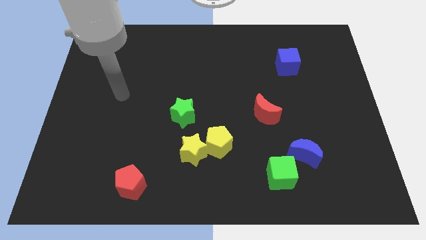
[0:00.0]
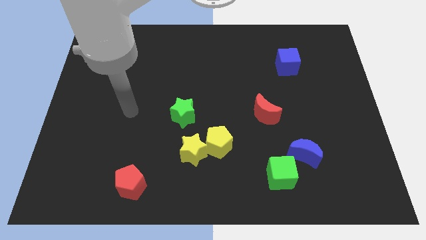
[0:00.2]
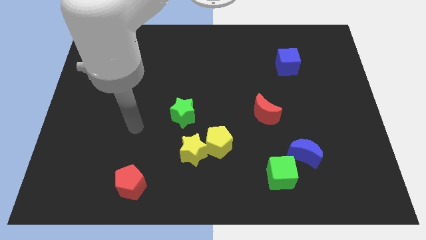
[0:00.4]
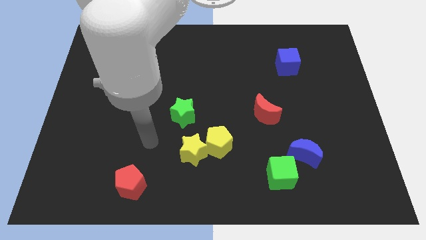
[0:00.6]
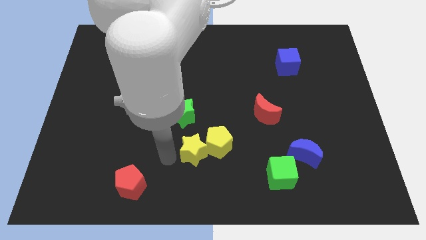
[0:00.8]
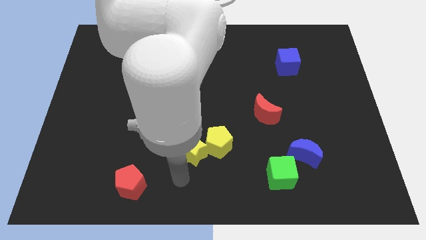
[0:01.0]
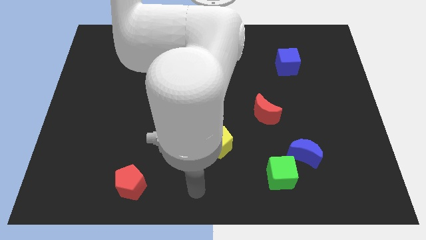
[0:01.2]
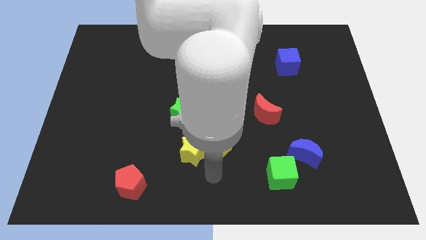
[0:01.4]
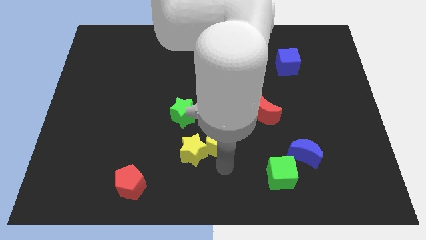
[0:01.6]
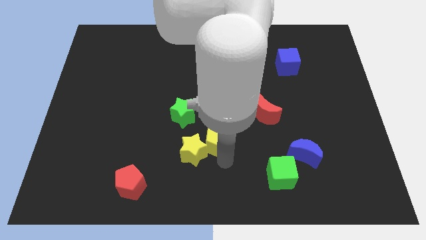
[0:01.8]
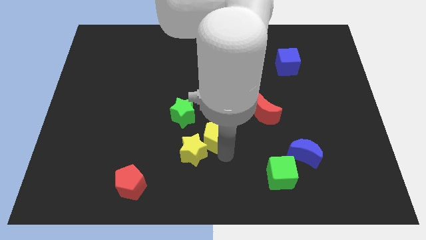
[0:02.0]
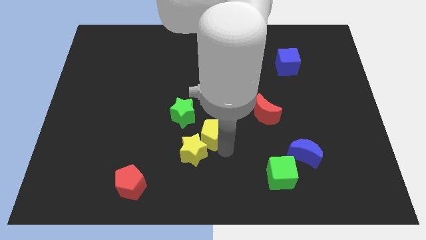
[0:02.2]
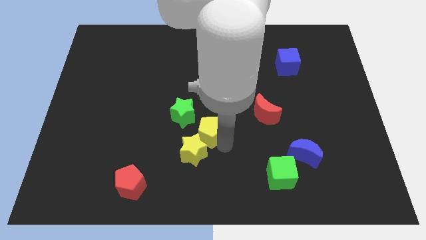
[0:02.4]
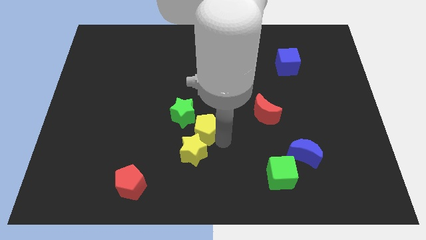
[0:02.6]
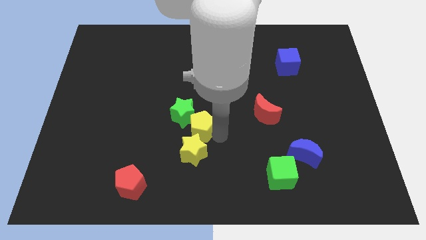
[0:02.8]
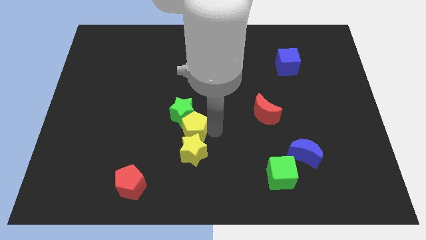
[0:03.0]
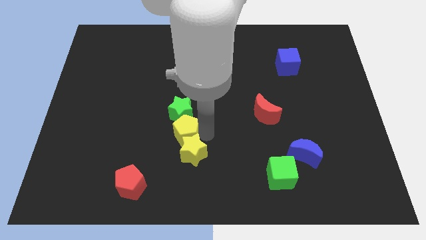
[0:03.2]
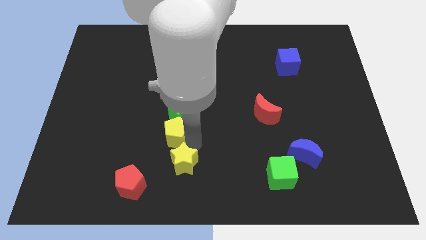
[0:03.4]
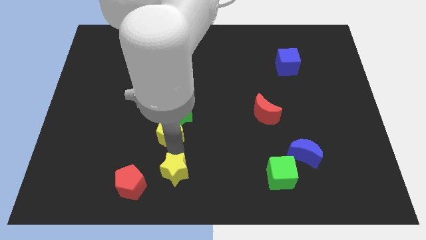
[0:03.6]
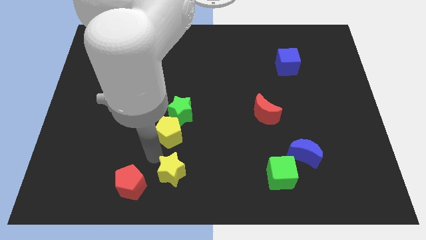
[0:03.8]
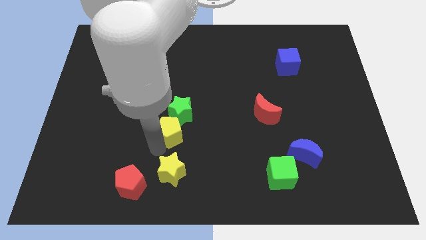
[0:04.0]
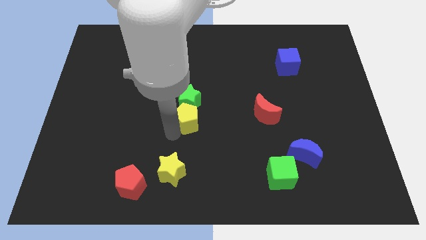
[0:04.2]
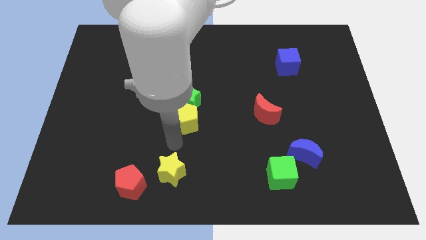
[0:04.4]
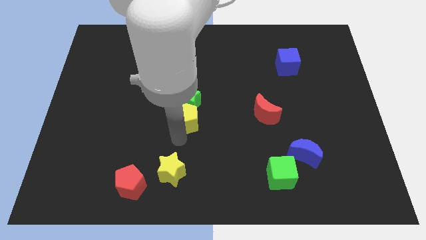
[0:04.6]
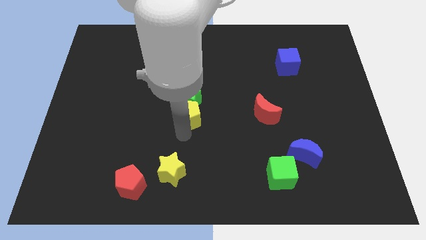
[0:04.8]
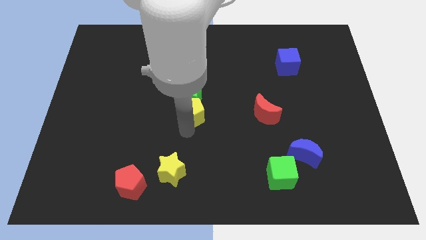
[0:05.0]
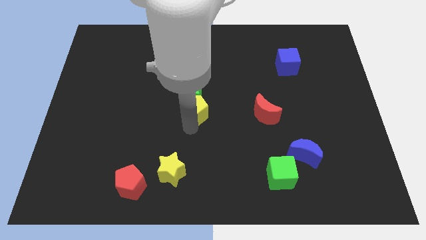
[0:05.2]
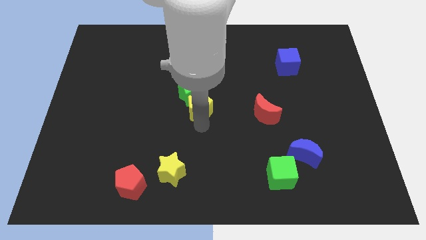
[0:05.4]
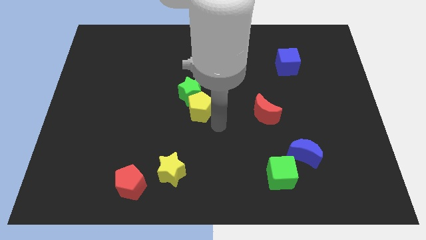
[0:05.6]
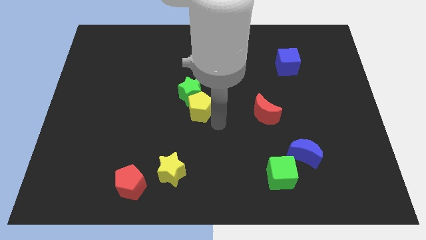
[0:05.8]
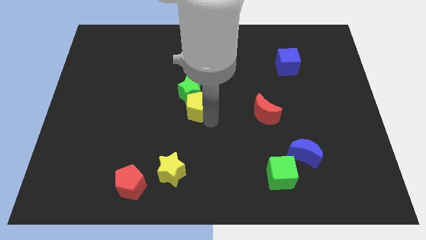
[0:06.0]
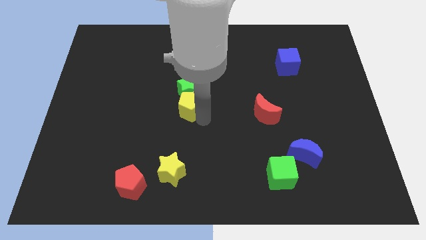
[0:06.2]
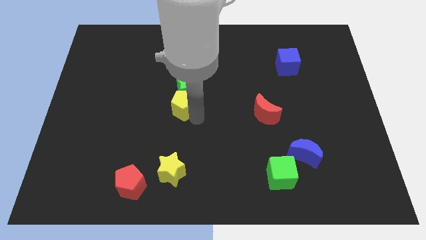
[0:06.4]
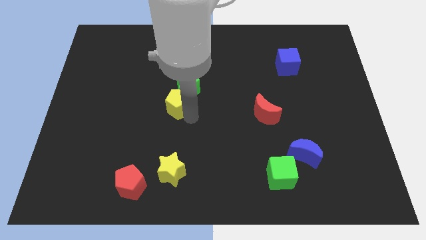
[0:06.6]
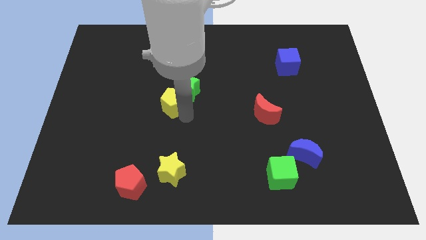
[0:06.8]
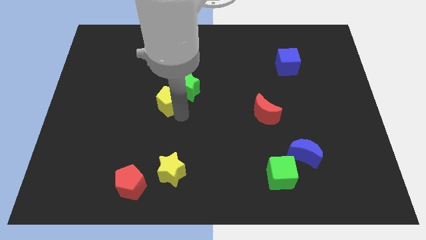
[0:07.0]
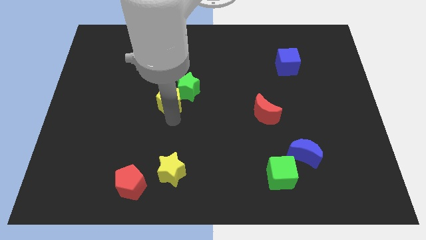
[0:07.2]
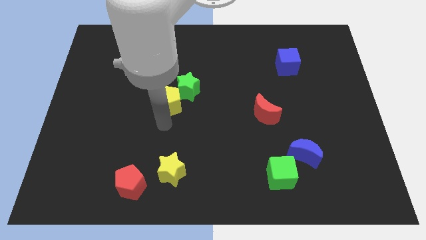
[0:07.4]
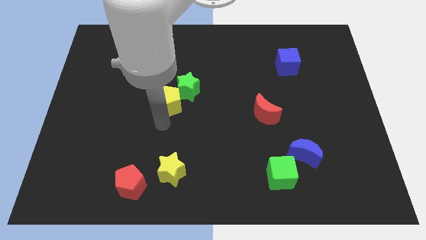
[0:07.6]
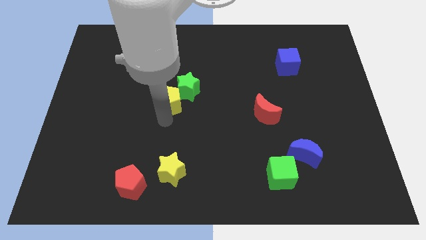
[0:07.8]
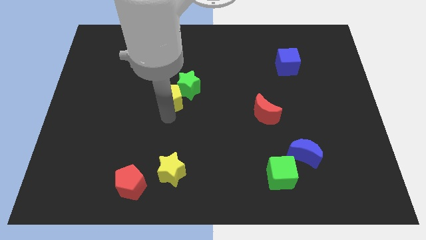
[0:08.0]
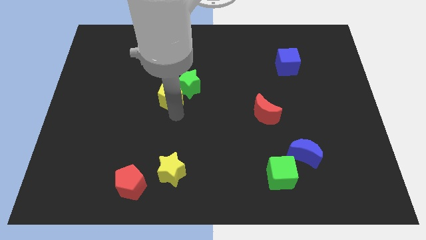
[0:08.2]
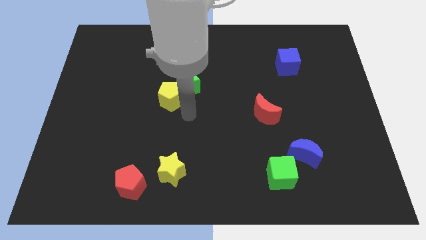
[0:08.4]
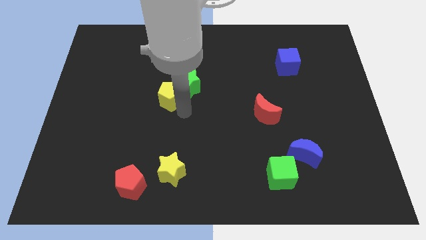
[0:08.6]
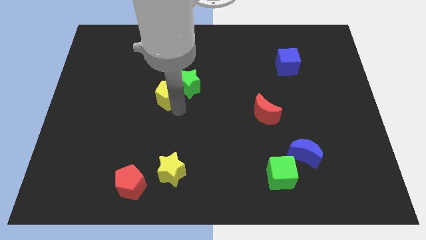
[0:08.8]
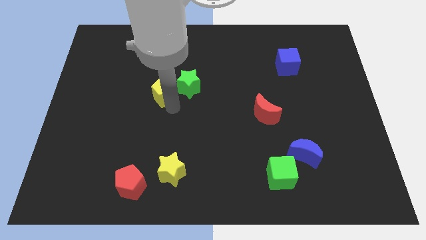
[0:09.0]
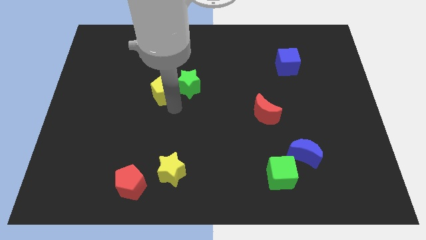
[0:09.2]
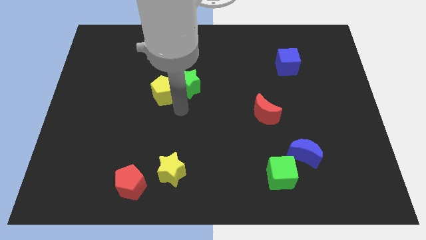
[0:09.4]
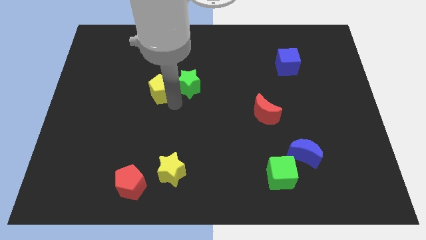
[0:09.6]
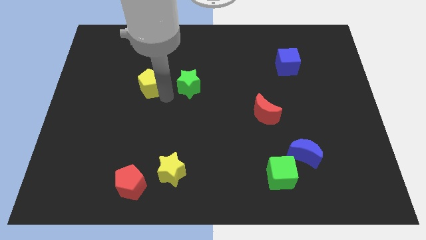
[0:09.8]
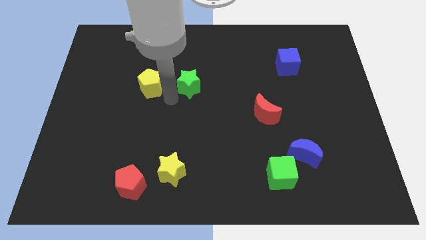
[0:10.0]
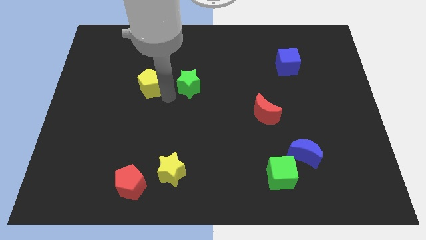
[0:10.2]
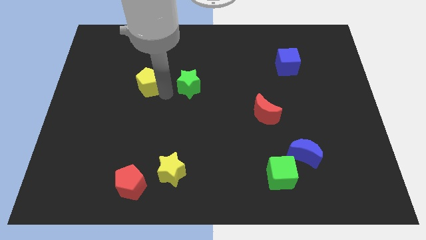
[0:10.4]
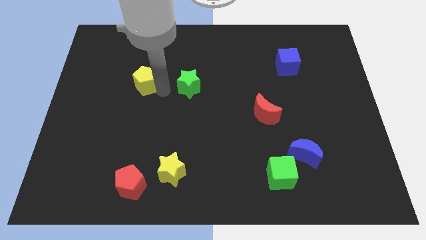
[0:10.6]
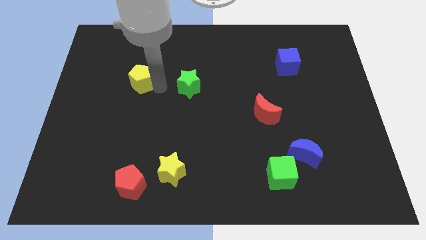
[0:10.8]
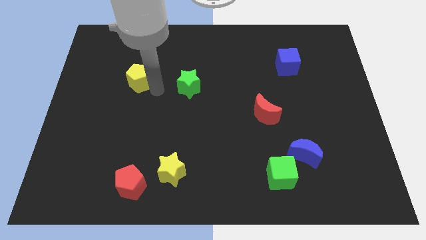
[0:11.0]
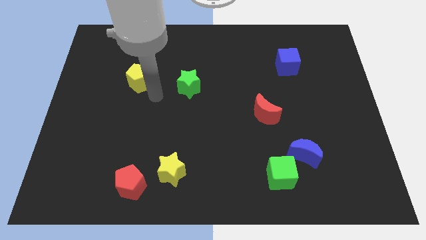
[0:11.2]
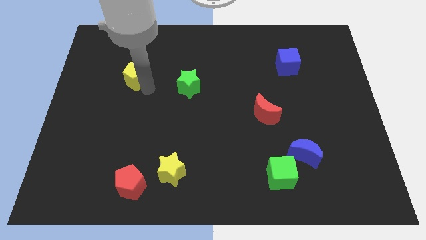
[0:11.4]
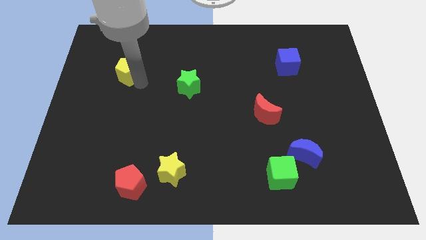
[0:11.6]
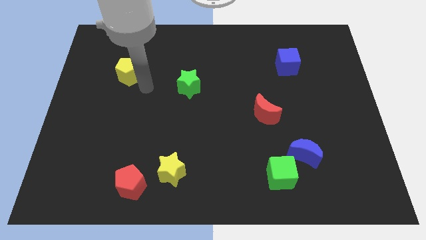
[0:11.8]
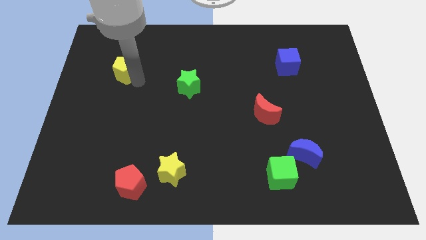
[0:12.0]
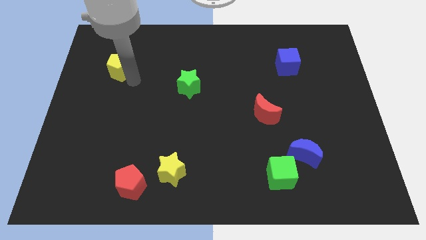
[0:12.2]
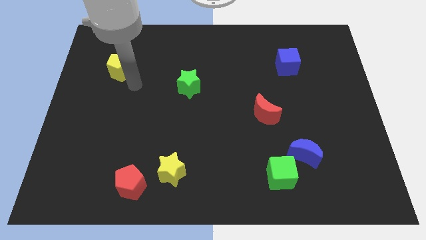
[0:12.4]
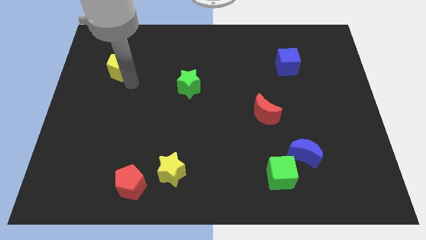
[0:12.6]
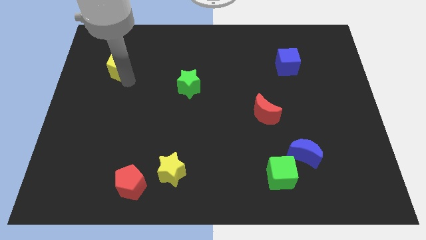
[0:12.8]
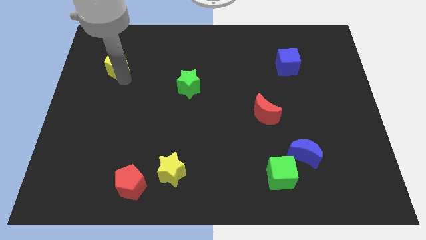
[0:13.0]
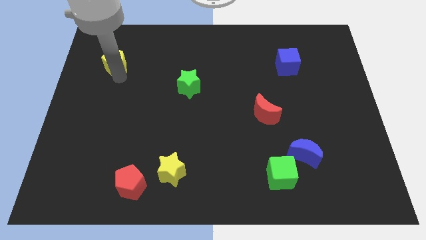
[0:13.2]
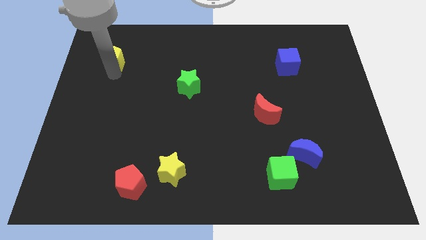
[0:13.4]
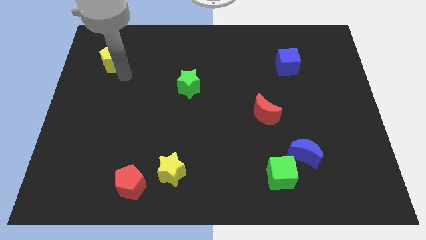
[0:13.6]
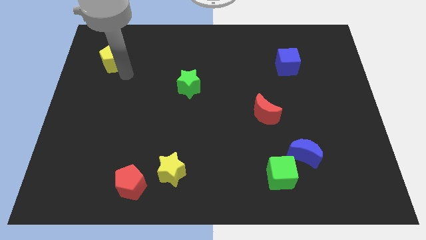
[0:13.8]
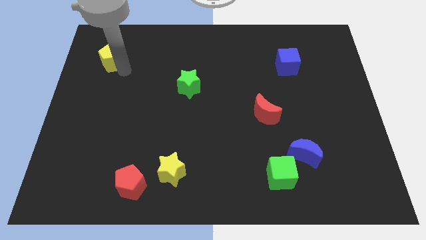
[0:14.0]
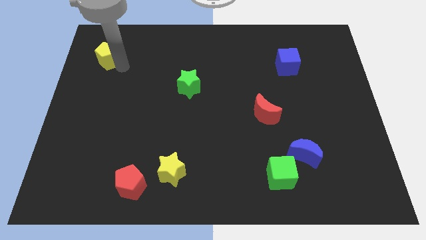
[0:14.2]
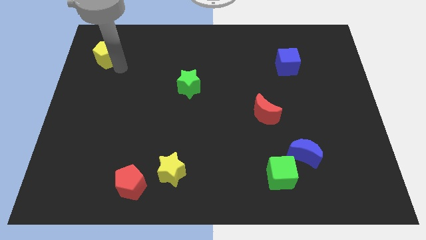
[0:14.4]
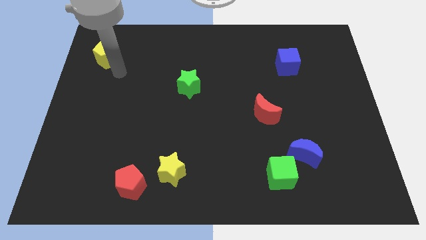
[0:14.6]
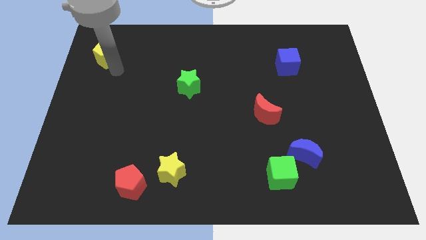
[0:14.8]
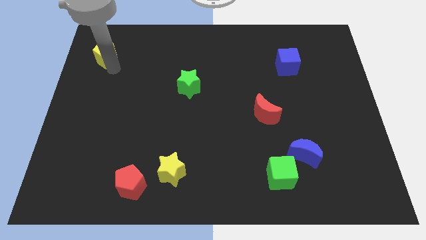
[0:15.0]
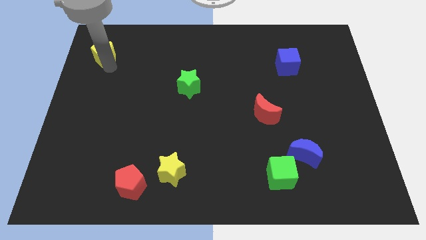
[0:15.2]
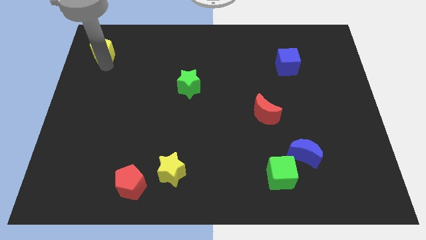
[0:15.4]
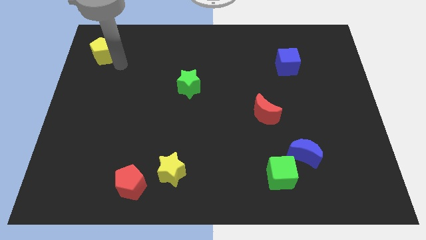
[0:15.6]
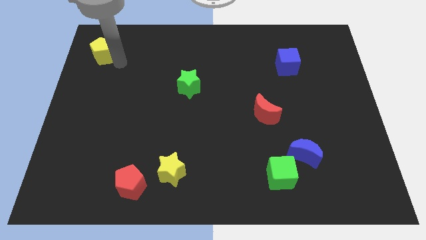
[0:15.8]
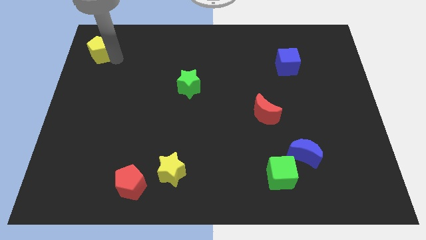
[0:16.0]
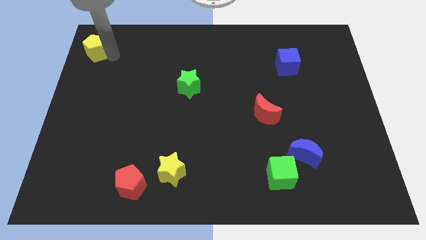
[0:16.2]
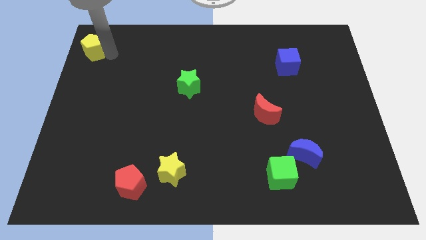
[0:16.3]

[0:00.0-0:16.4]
slide the yellow pentagon to the top left of the board
